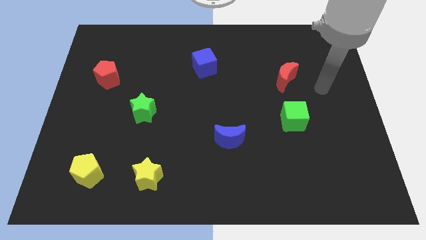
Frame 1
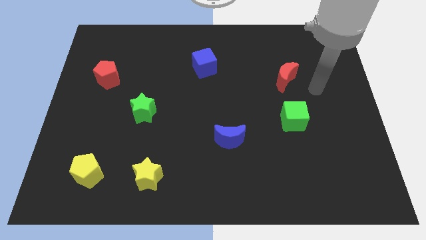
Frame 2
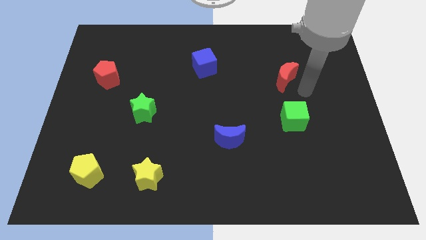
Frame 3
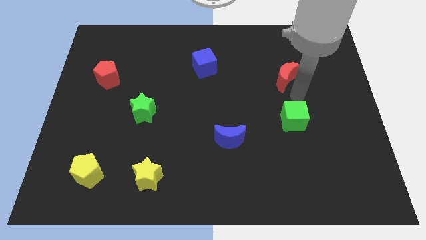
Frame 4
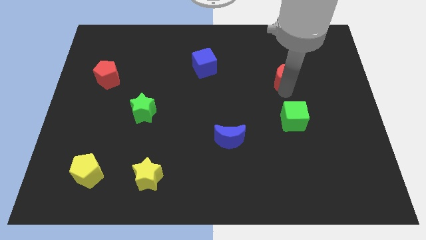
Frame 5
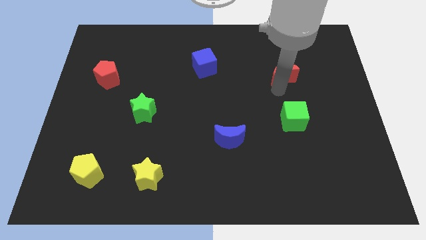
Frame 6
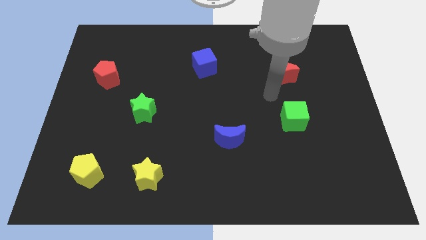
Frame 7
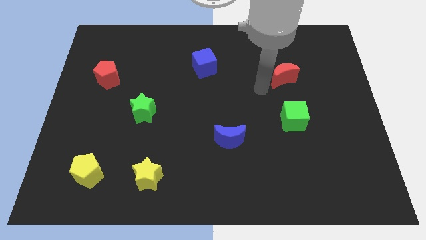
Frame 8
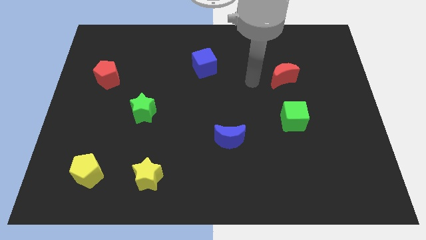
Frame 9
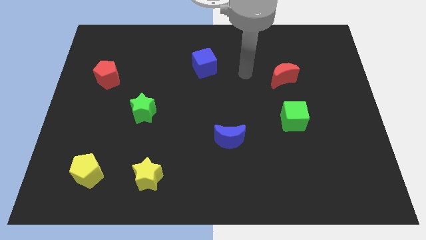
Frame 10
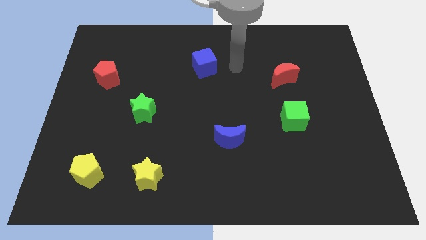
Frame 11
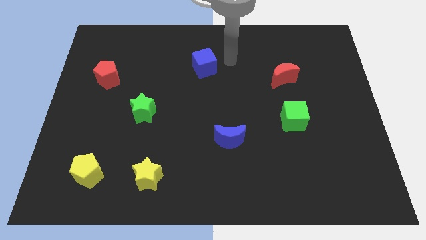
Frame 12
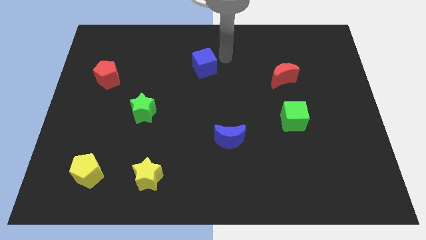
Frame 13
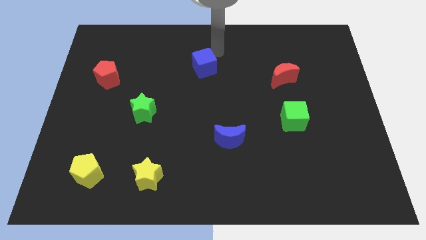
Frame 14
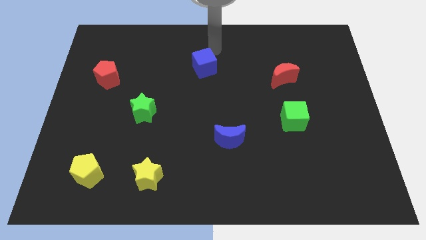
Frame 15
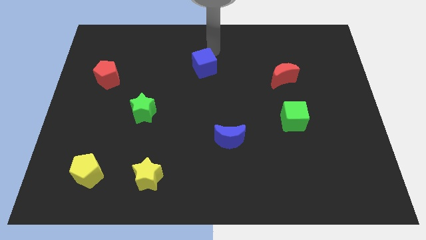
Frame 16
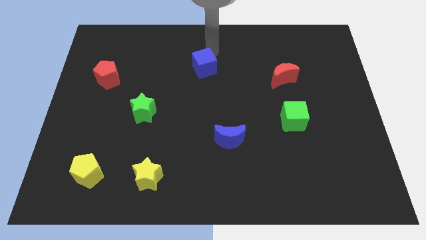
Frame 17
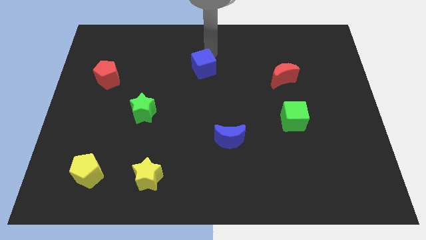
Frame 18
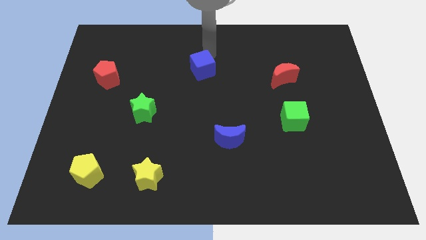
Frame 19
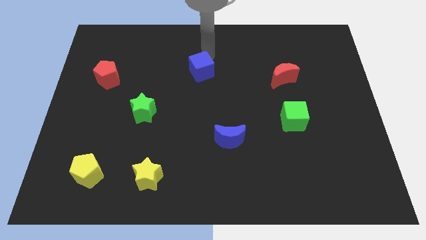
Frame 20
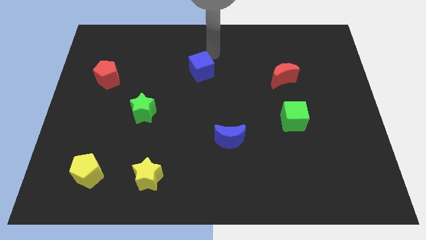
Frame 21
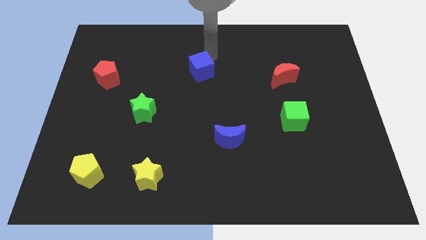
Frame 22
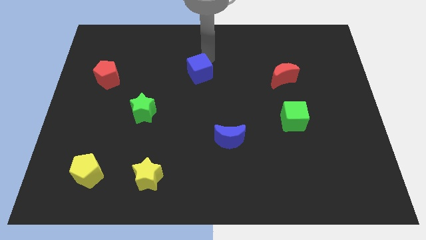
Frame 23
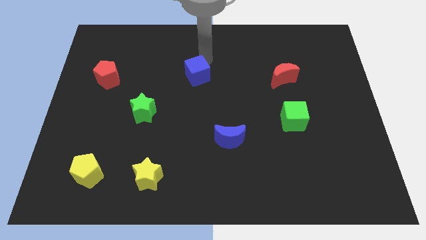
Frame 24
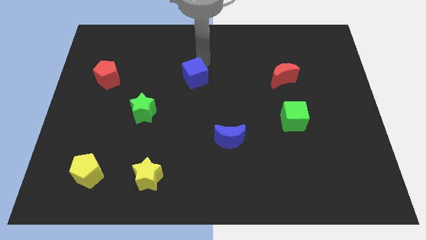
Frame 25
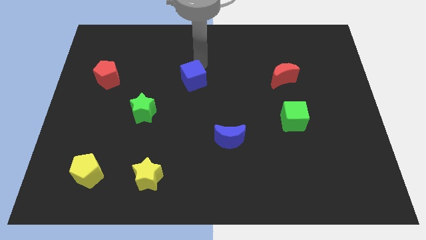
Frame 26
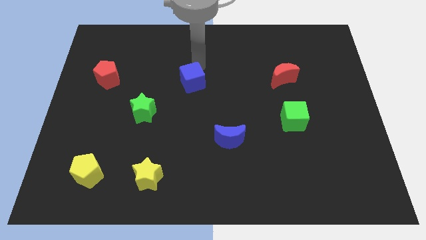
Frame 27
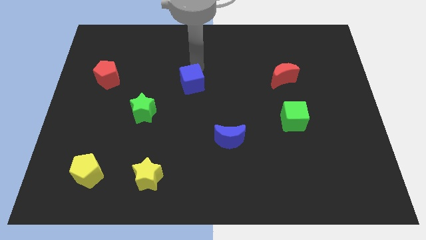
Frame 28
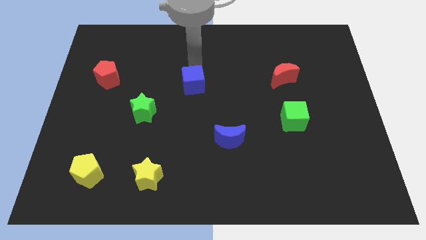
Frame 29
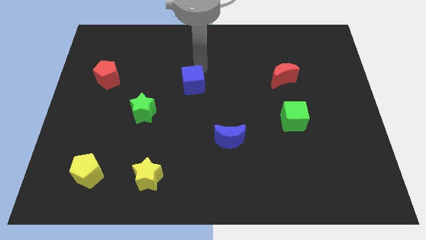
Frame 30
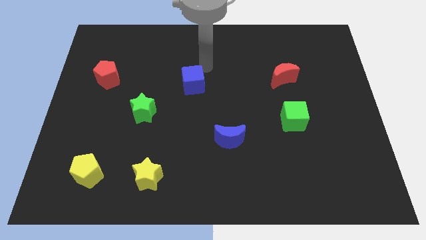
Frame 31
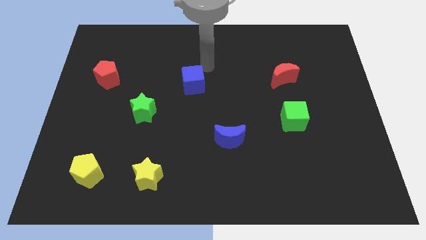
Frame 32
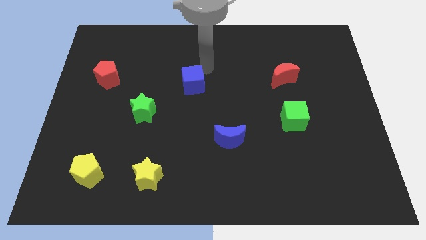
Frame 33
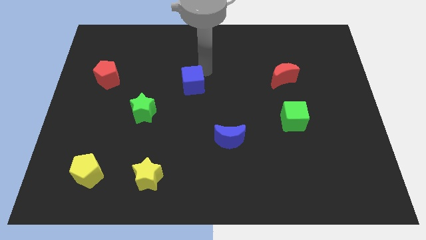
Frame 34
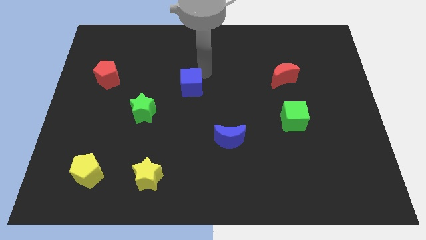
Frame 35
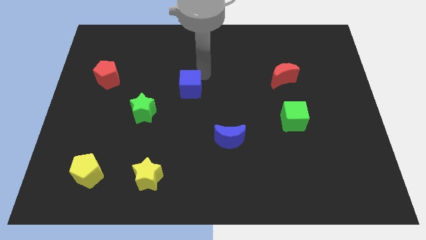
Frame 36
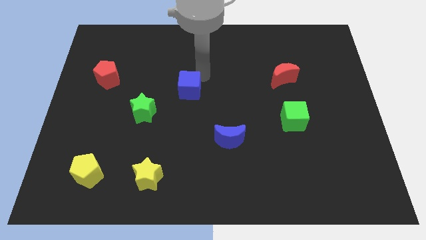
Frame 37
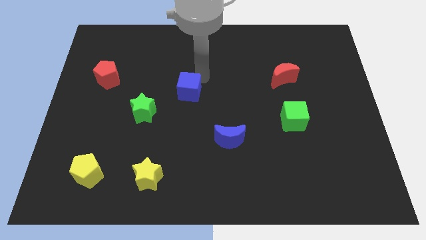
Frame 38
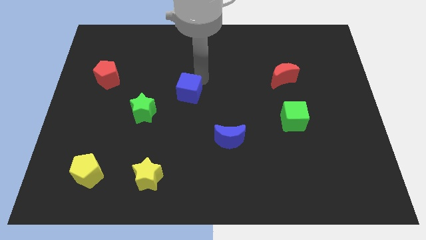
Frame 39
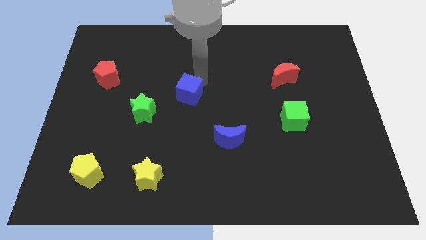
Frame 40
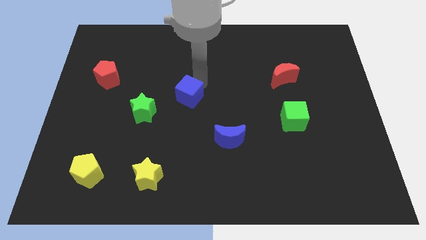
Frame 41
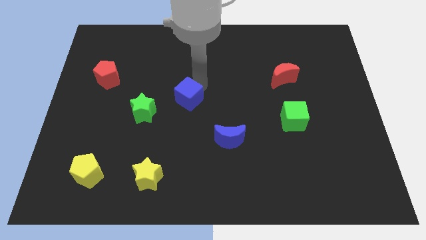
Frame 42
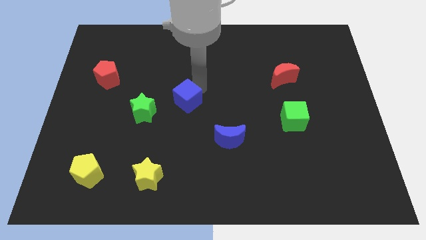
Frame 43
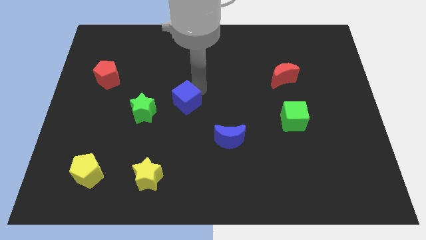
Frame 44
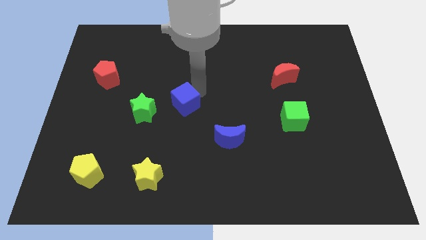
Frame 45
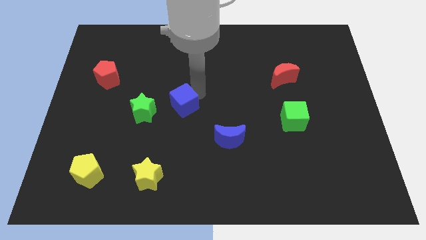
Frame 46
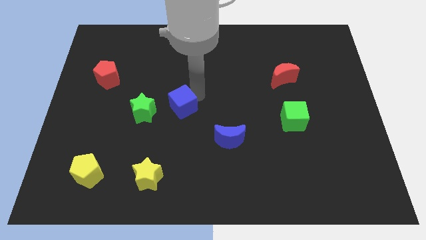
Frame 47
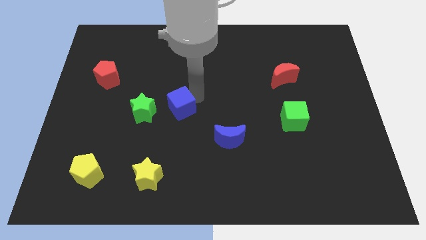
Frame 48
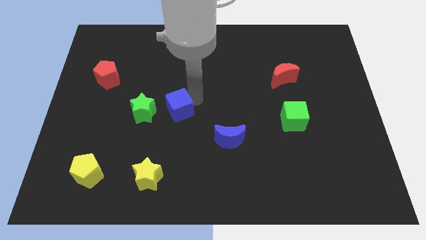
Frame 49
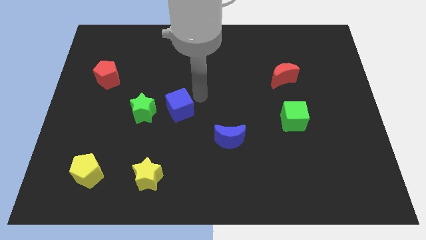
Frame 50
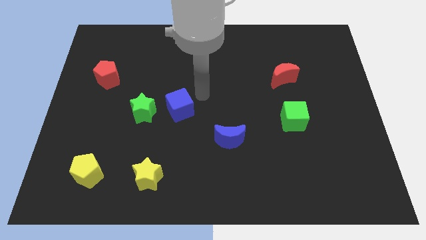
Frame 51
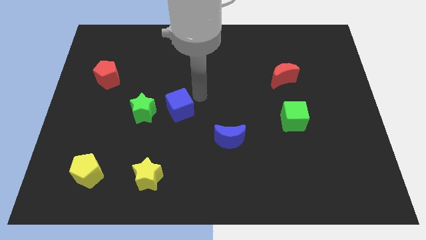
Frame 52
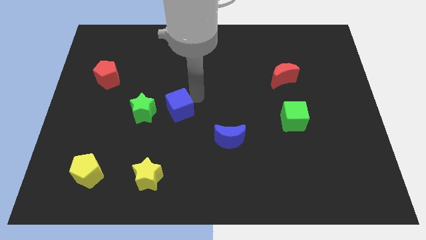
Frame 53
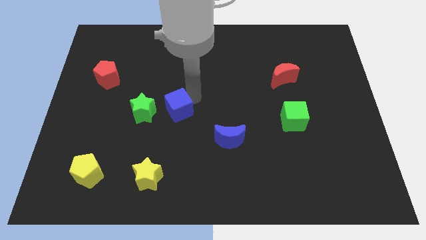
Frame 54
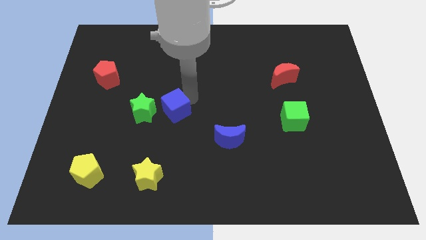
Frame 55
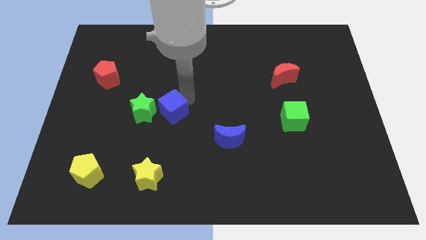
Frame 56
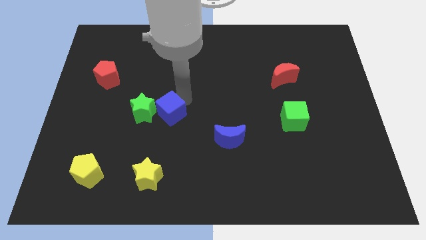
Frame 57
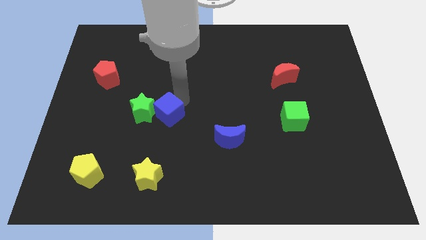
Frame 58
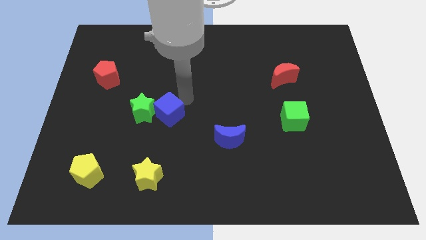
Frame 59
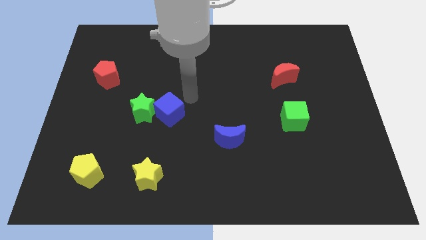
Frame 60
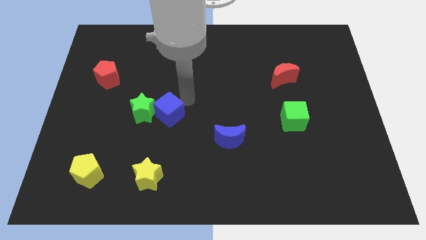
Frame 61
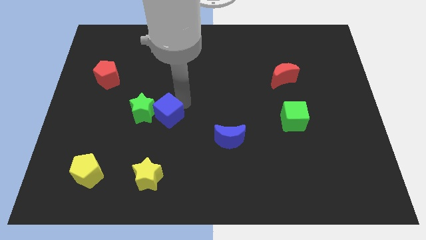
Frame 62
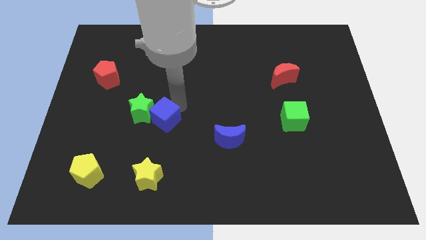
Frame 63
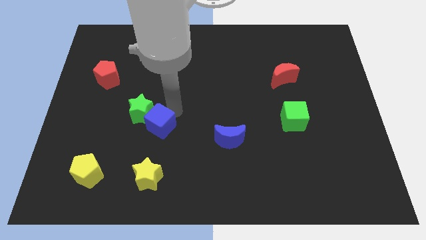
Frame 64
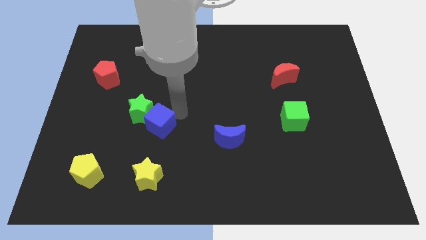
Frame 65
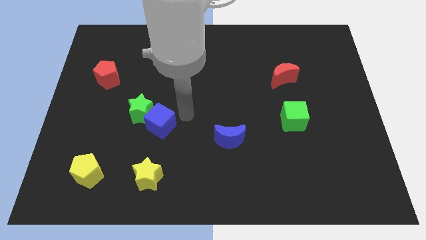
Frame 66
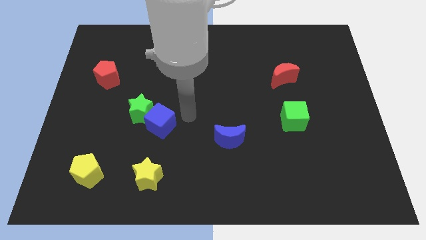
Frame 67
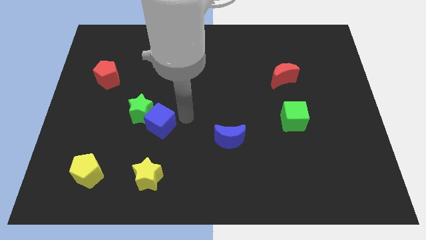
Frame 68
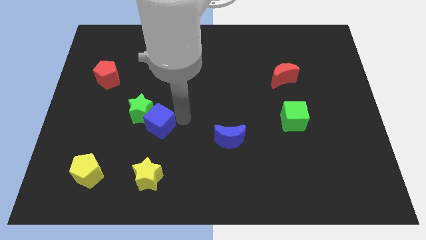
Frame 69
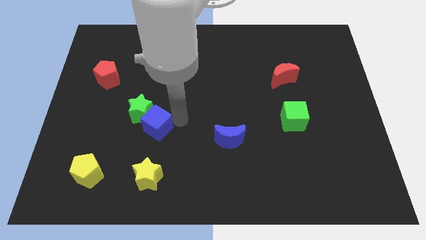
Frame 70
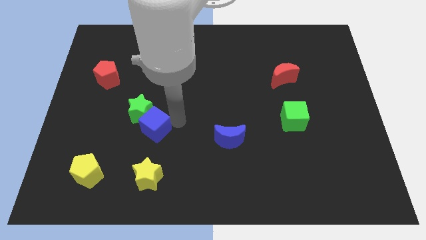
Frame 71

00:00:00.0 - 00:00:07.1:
push the blue cube diagonally downwards and left

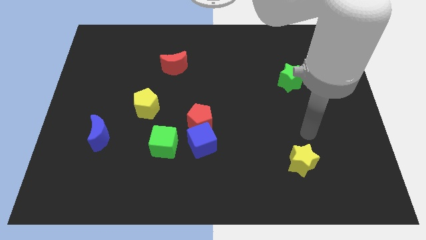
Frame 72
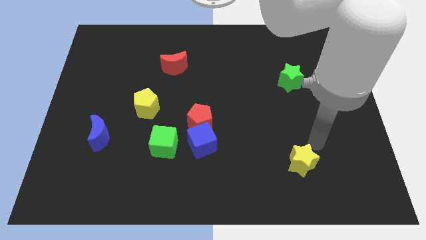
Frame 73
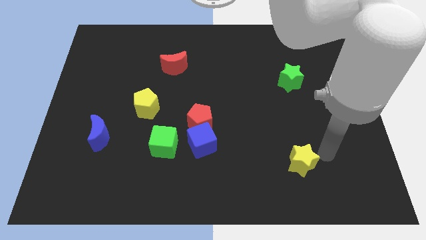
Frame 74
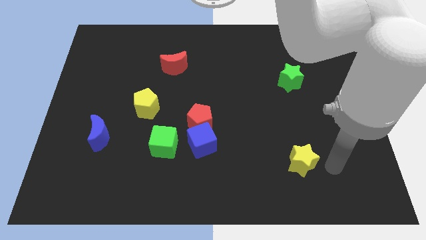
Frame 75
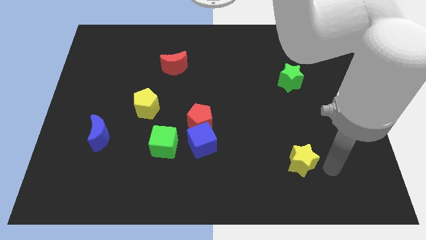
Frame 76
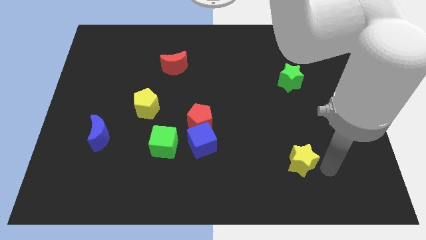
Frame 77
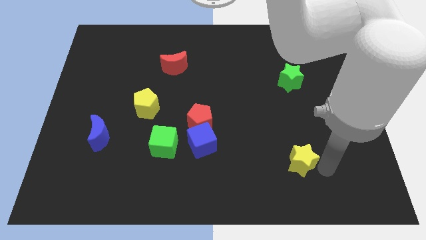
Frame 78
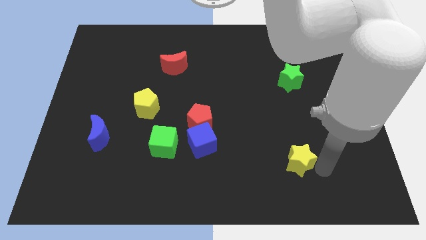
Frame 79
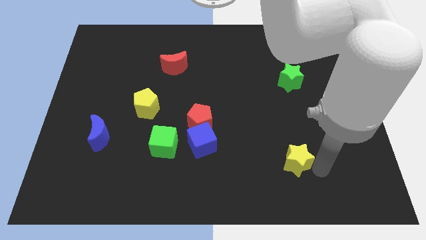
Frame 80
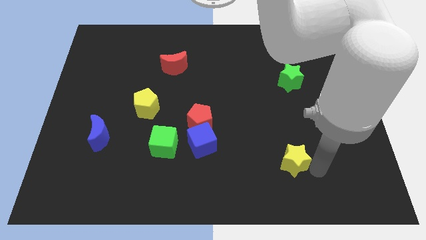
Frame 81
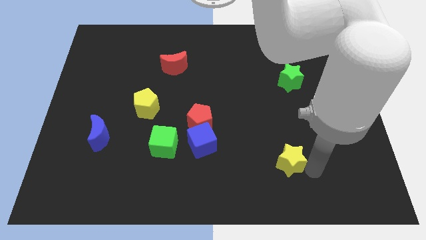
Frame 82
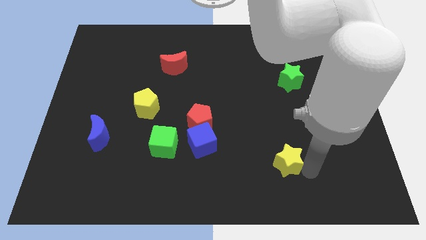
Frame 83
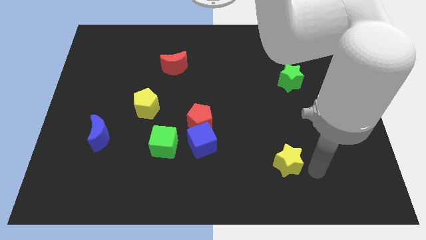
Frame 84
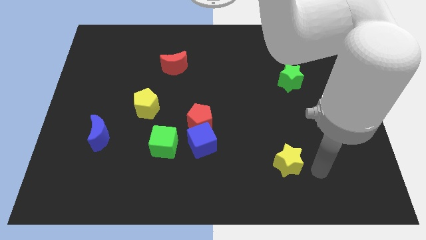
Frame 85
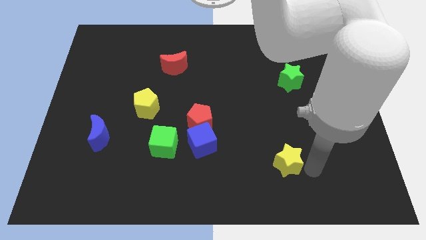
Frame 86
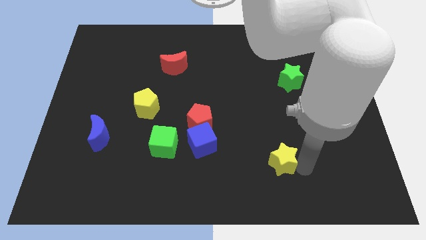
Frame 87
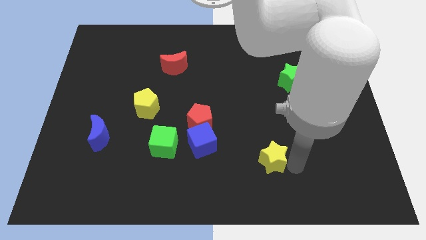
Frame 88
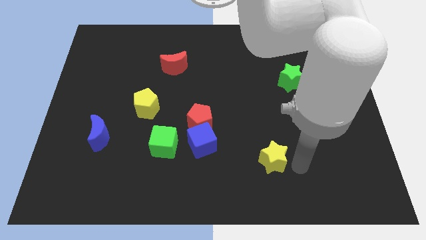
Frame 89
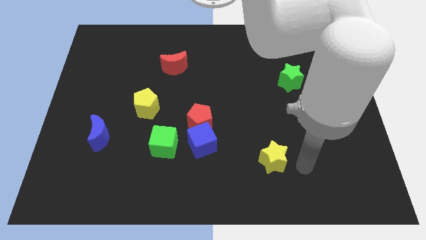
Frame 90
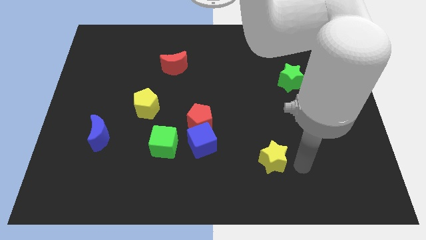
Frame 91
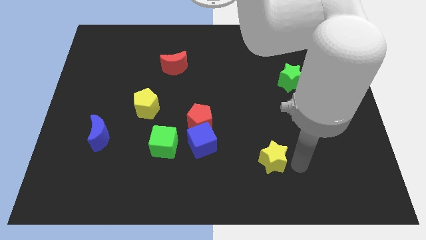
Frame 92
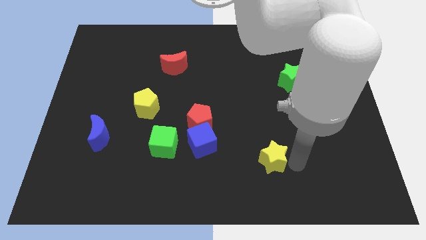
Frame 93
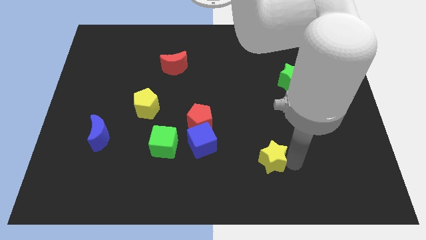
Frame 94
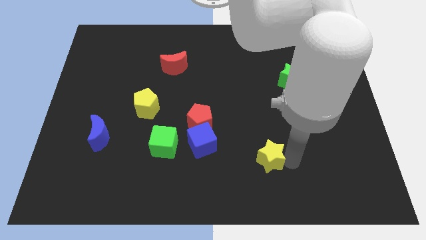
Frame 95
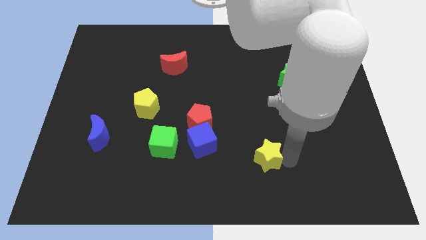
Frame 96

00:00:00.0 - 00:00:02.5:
push the yellow star to the left a little bit
